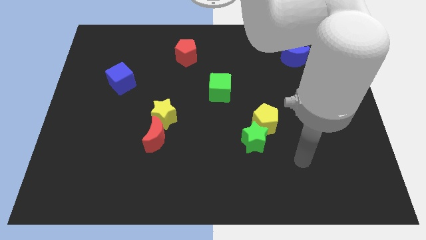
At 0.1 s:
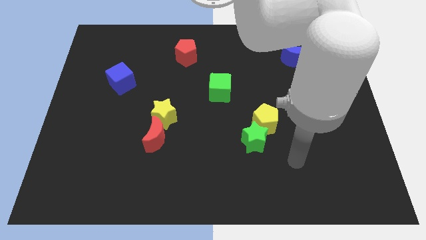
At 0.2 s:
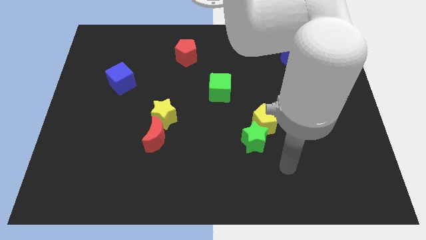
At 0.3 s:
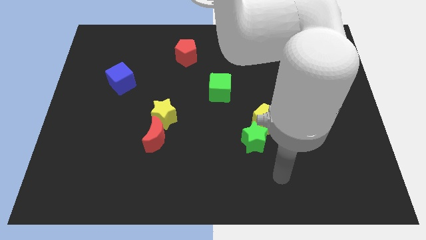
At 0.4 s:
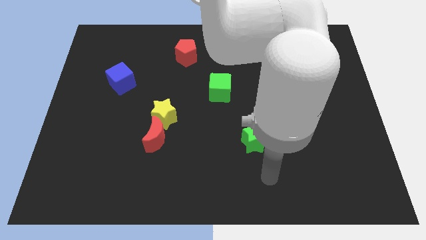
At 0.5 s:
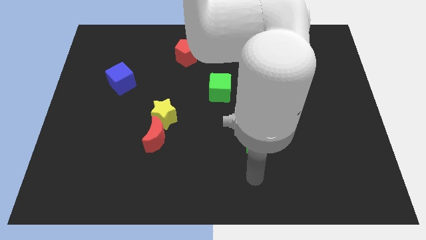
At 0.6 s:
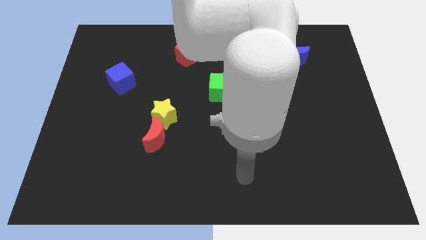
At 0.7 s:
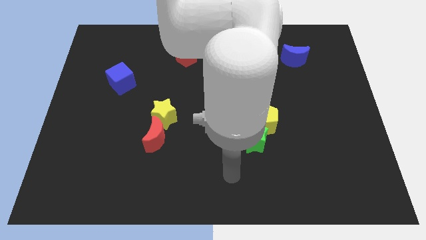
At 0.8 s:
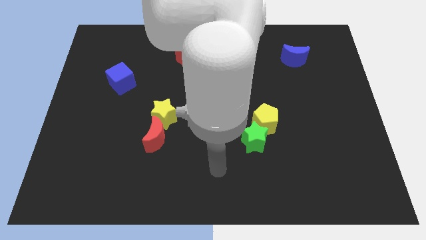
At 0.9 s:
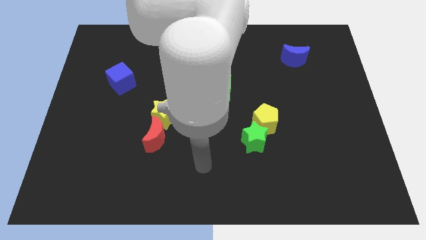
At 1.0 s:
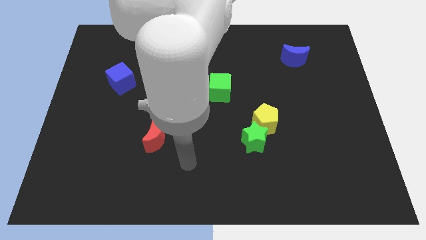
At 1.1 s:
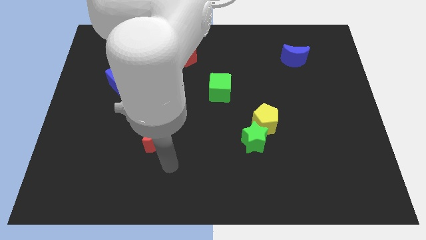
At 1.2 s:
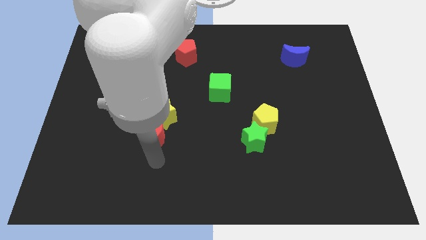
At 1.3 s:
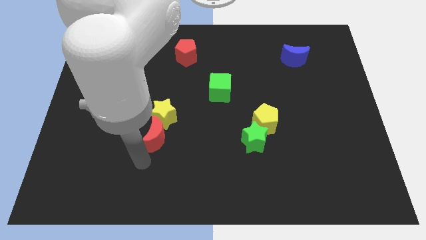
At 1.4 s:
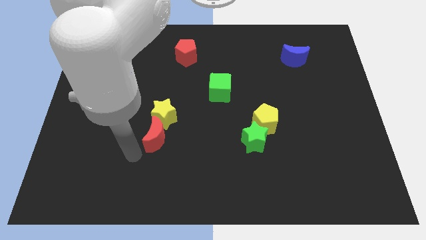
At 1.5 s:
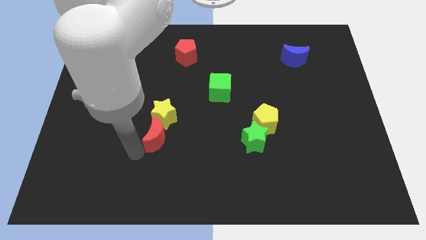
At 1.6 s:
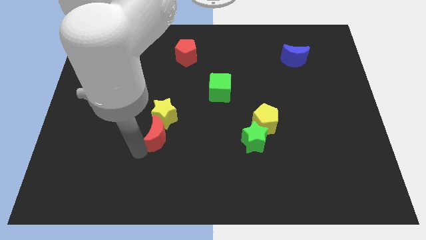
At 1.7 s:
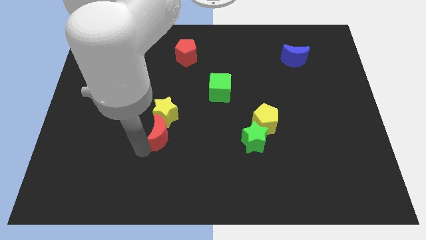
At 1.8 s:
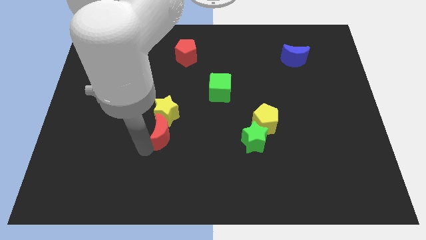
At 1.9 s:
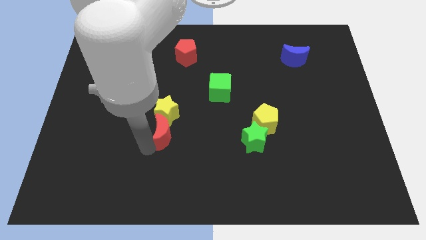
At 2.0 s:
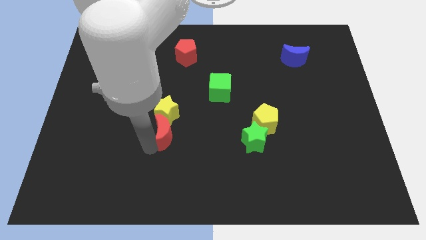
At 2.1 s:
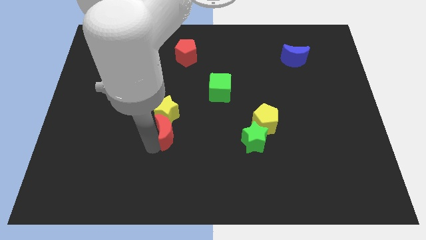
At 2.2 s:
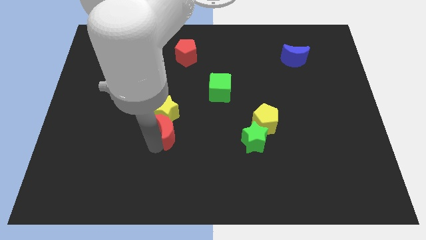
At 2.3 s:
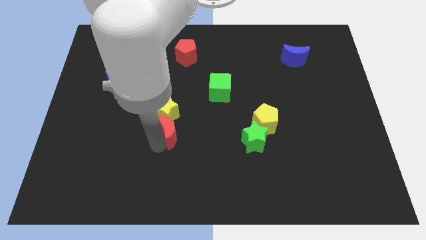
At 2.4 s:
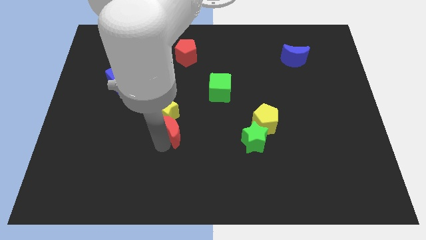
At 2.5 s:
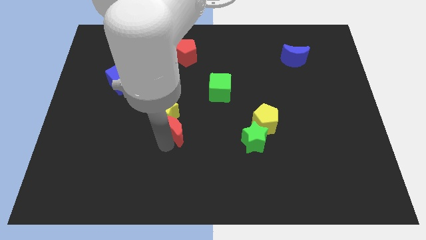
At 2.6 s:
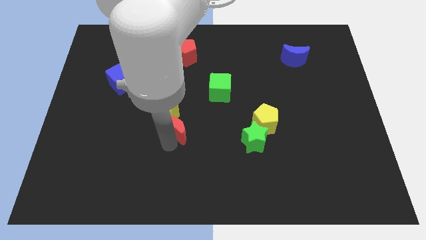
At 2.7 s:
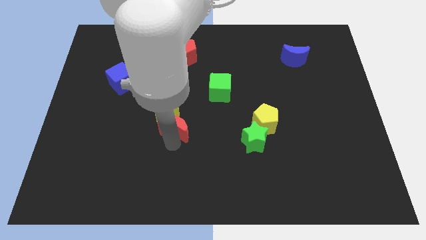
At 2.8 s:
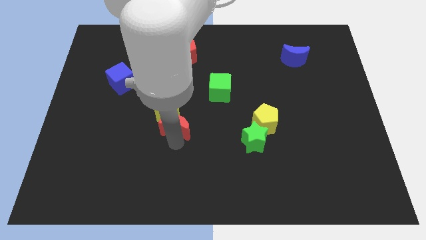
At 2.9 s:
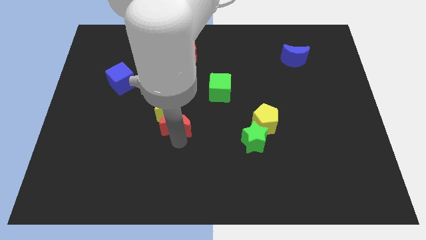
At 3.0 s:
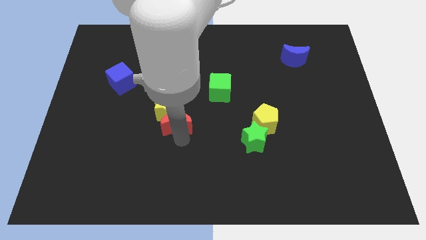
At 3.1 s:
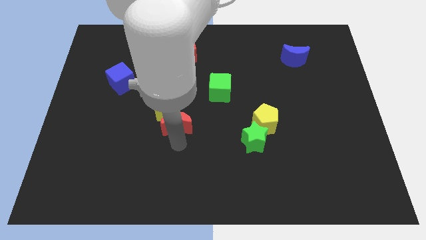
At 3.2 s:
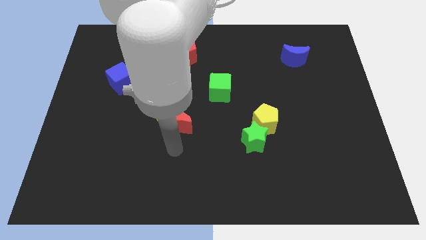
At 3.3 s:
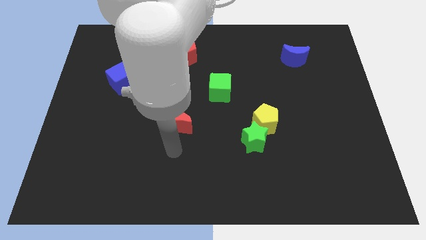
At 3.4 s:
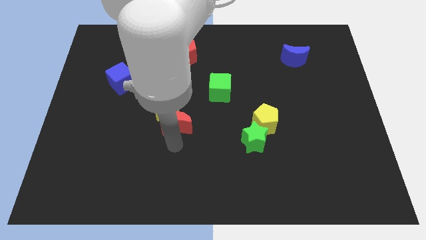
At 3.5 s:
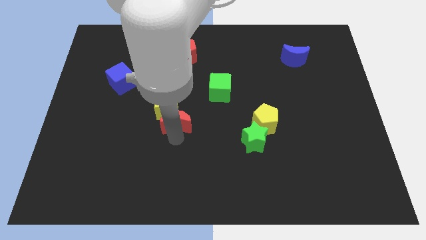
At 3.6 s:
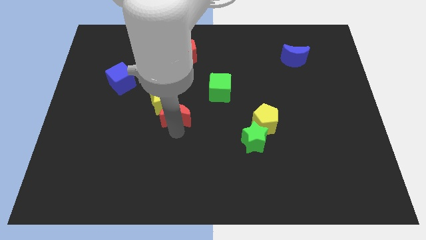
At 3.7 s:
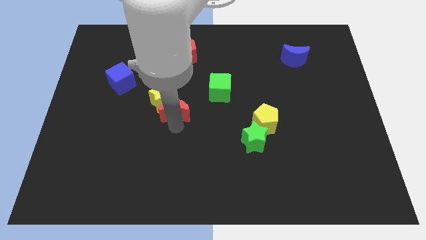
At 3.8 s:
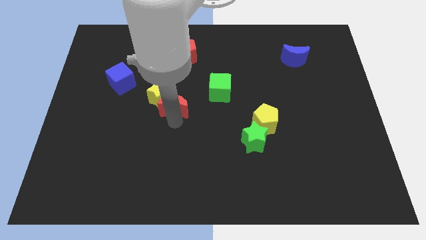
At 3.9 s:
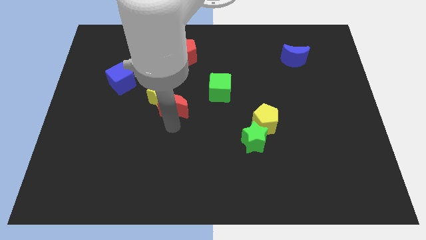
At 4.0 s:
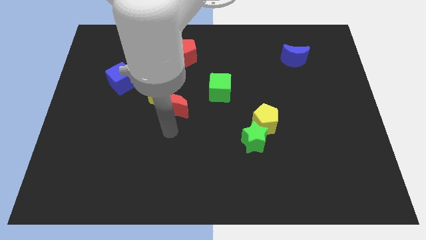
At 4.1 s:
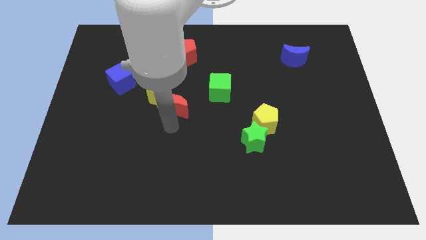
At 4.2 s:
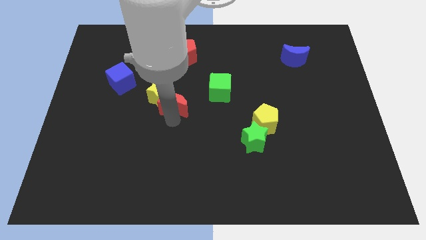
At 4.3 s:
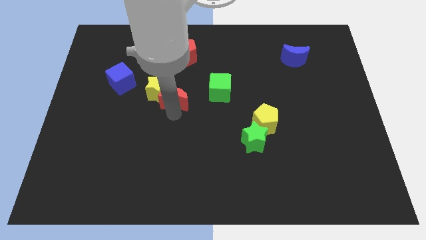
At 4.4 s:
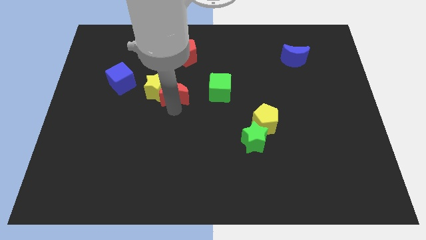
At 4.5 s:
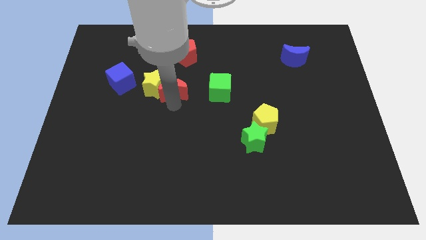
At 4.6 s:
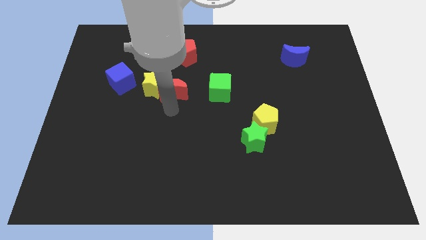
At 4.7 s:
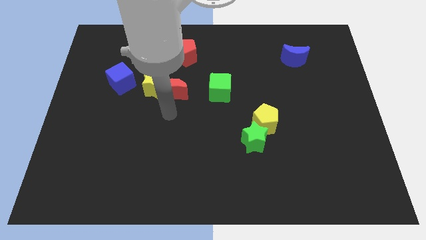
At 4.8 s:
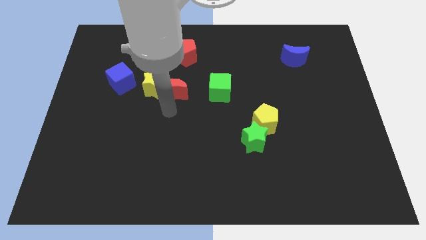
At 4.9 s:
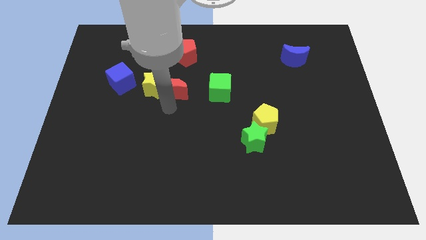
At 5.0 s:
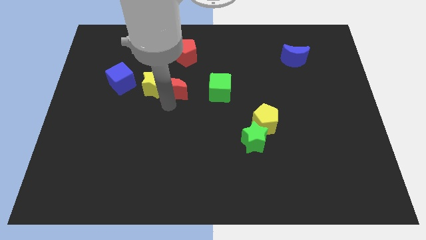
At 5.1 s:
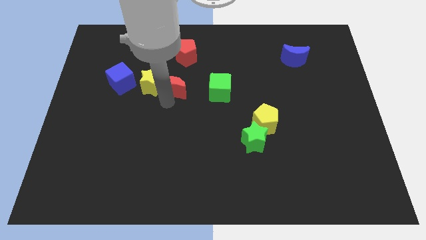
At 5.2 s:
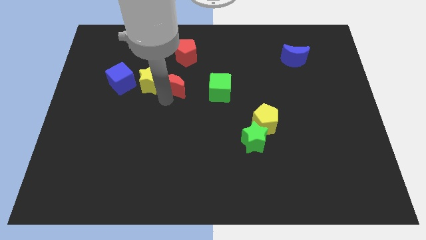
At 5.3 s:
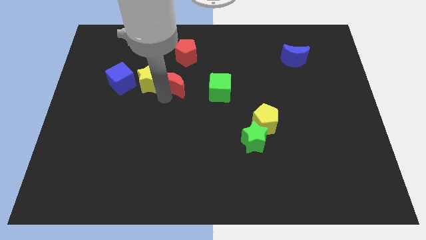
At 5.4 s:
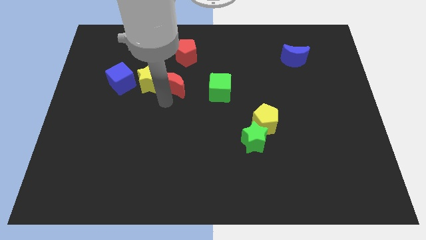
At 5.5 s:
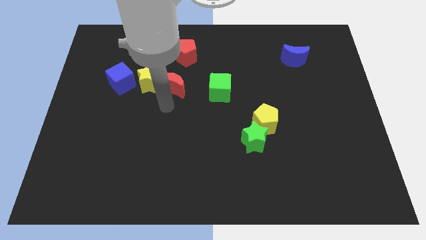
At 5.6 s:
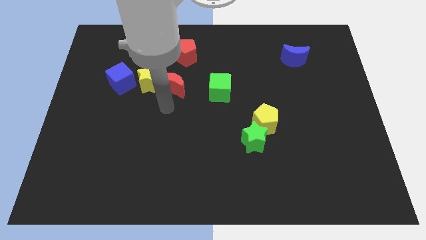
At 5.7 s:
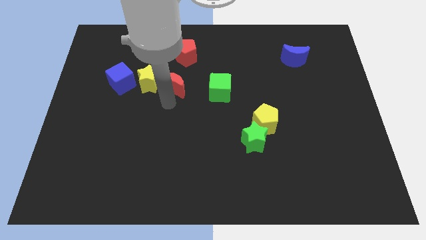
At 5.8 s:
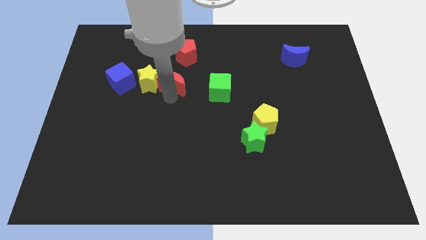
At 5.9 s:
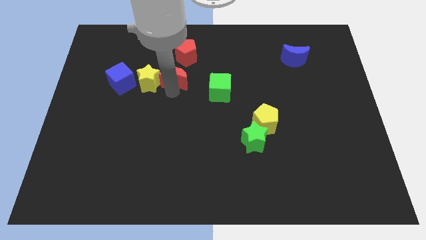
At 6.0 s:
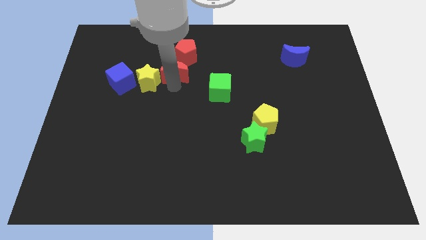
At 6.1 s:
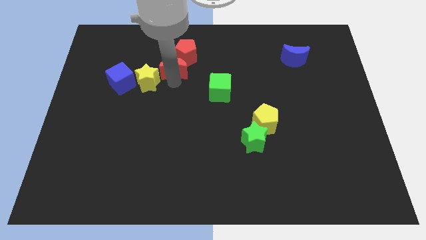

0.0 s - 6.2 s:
push the red moon close to the red pentagon

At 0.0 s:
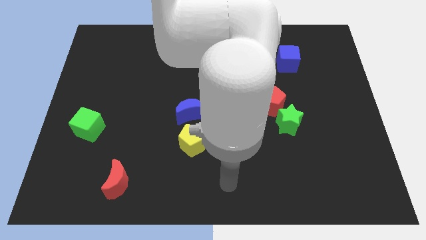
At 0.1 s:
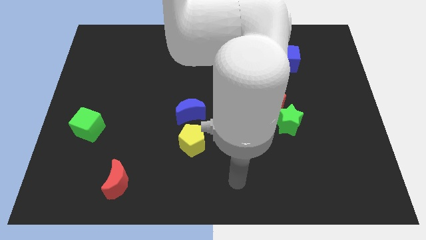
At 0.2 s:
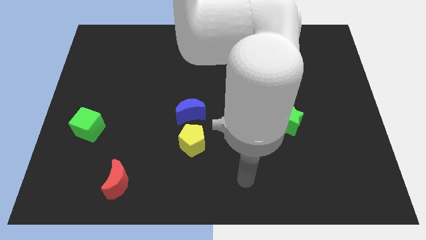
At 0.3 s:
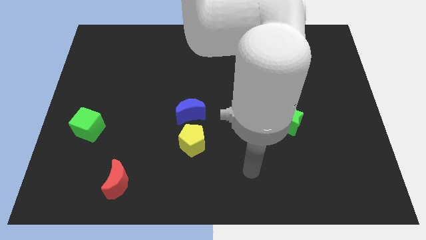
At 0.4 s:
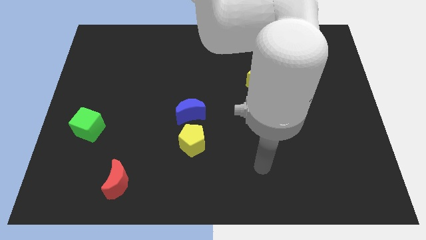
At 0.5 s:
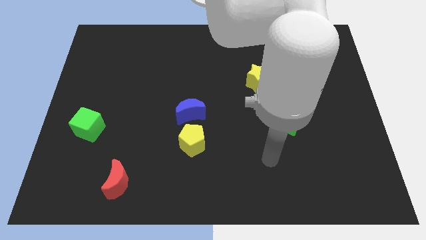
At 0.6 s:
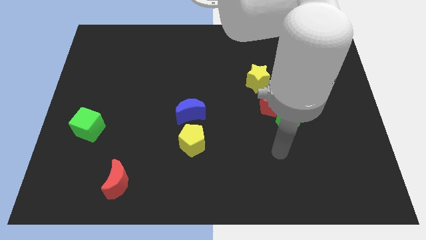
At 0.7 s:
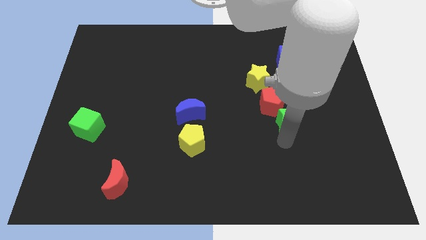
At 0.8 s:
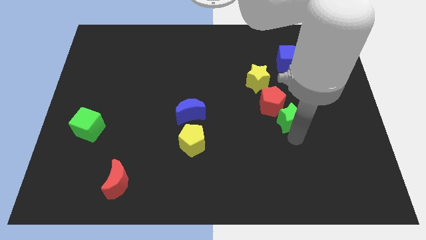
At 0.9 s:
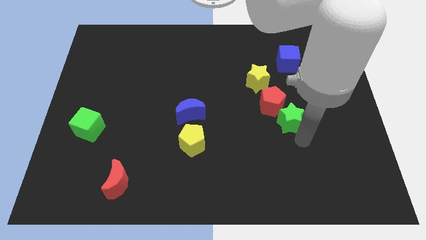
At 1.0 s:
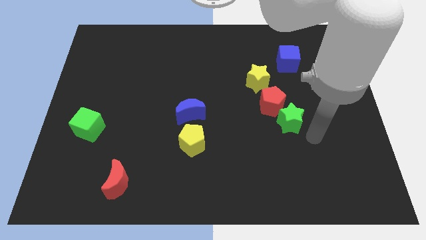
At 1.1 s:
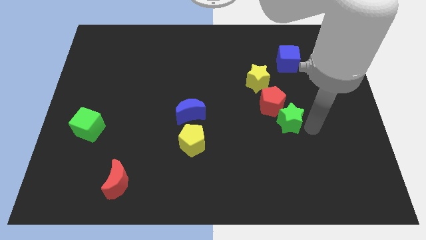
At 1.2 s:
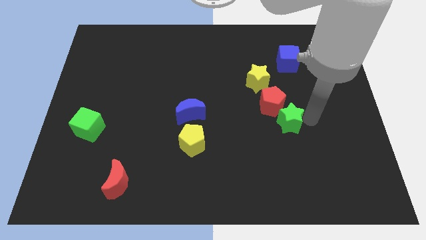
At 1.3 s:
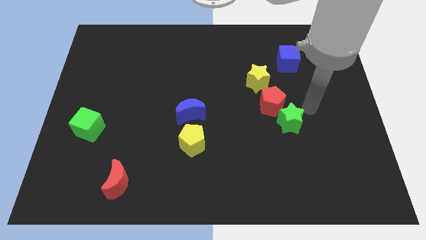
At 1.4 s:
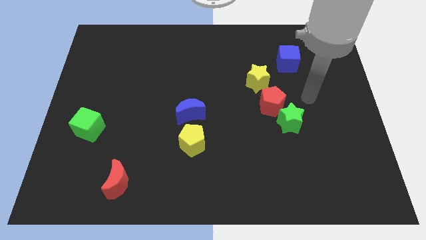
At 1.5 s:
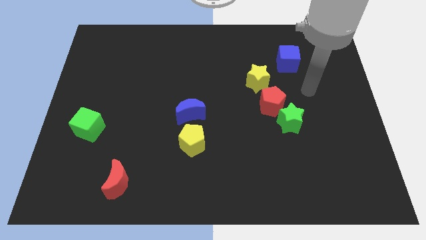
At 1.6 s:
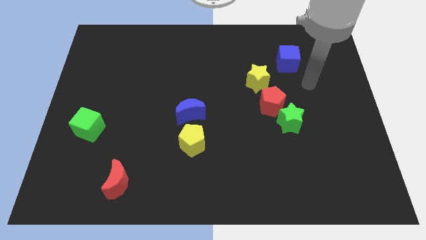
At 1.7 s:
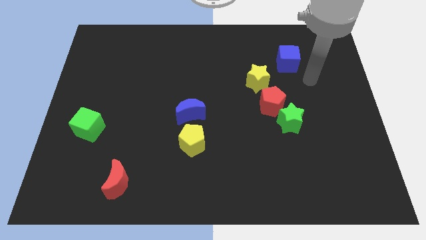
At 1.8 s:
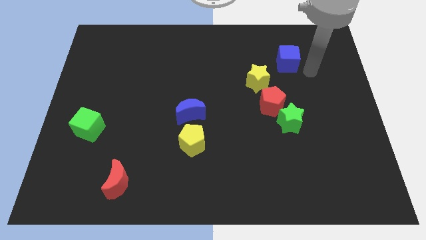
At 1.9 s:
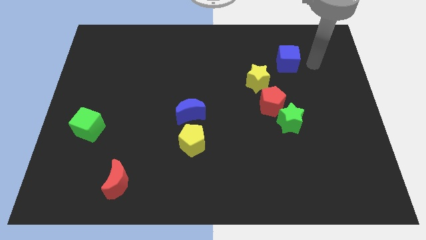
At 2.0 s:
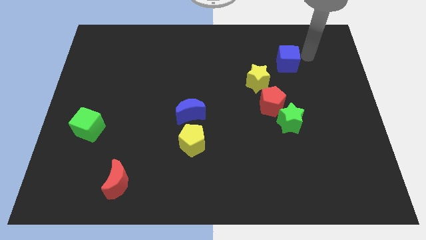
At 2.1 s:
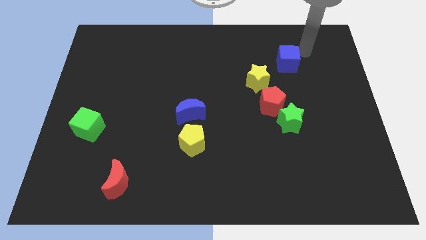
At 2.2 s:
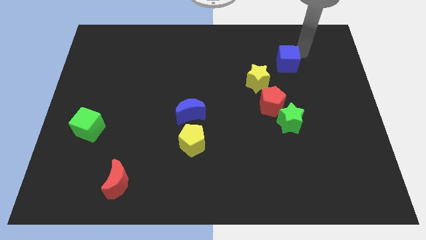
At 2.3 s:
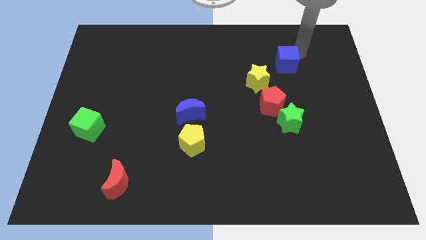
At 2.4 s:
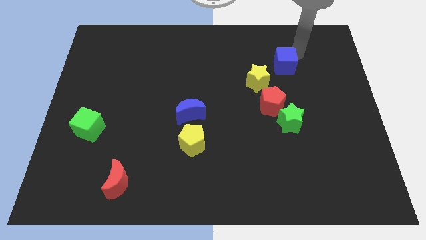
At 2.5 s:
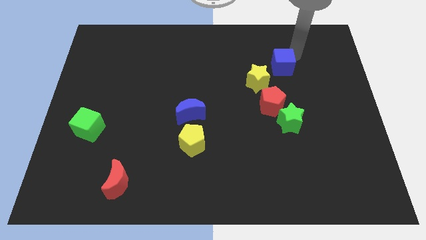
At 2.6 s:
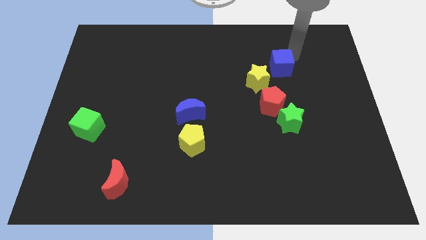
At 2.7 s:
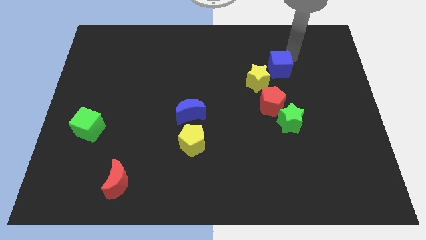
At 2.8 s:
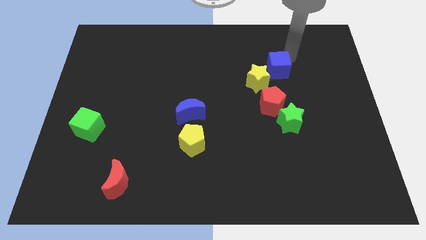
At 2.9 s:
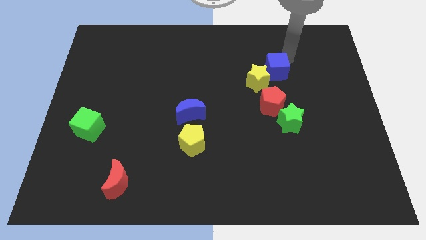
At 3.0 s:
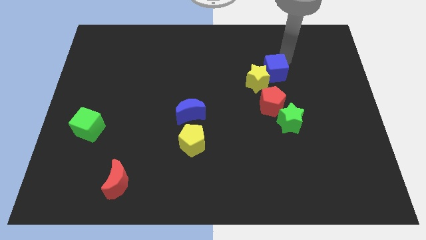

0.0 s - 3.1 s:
put the blue cube next to the yellow star
